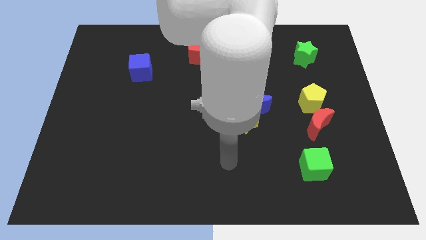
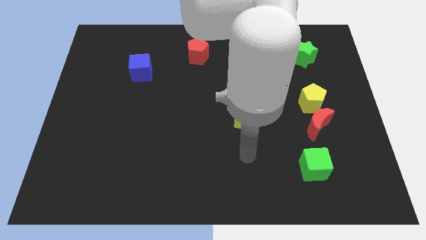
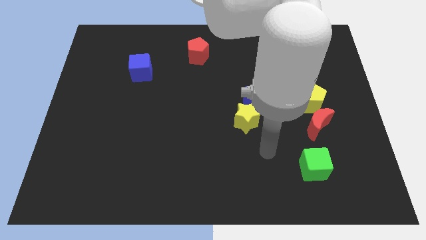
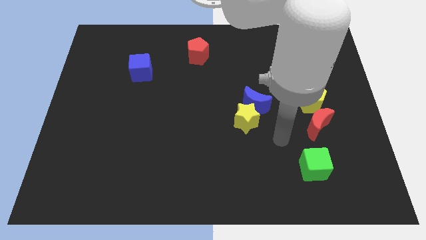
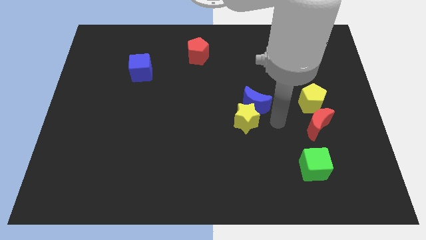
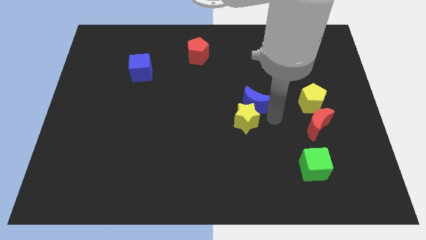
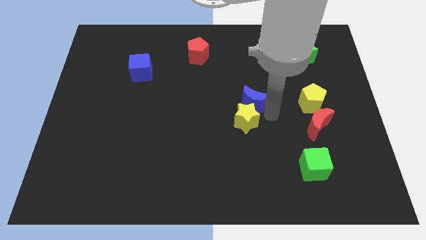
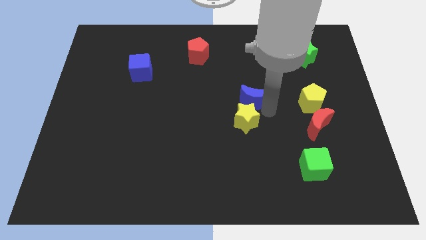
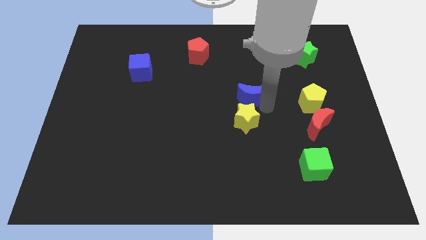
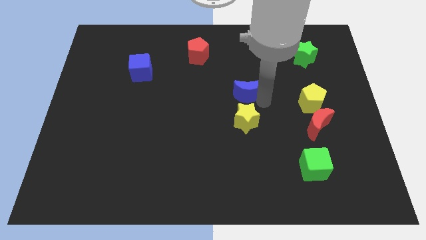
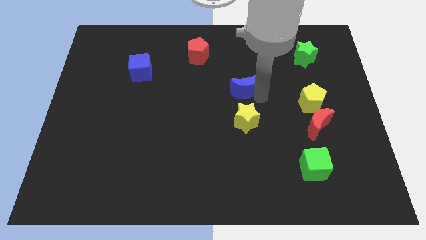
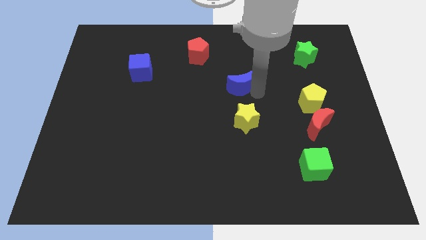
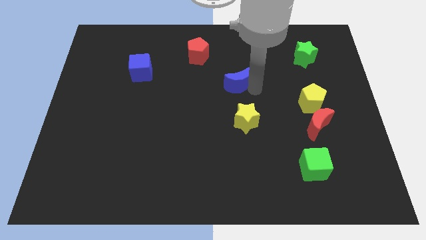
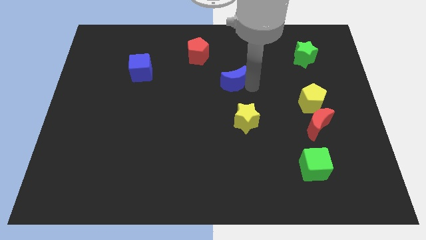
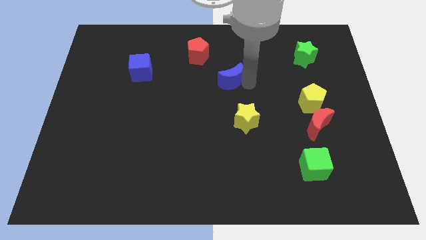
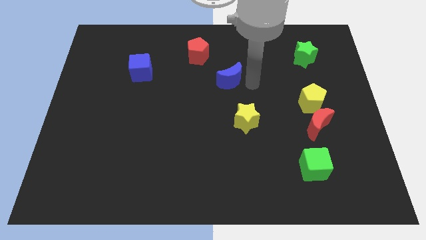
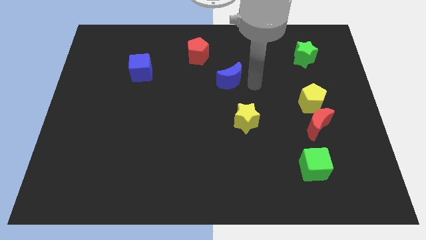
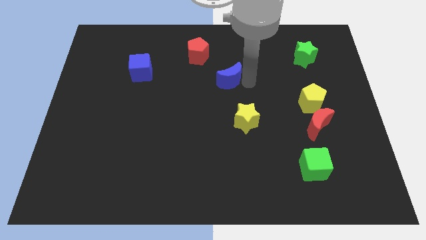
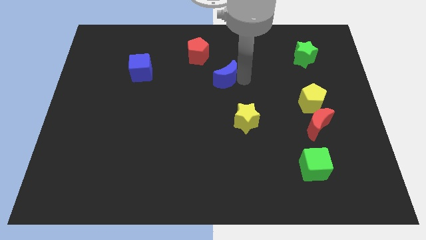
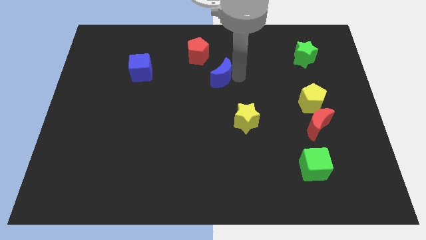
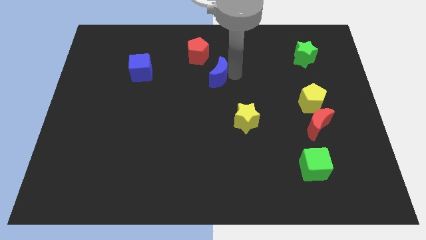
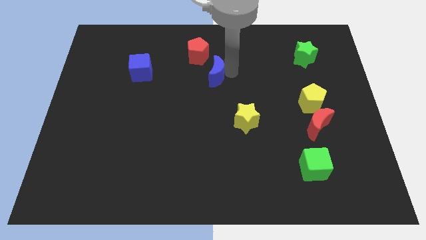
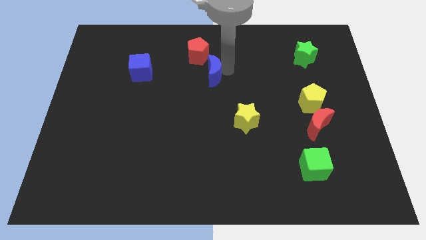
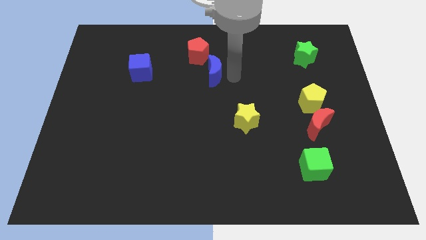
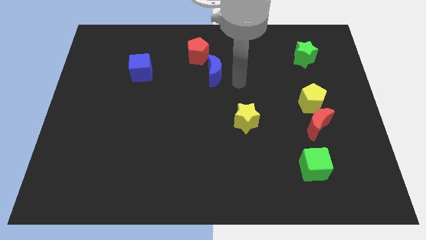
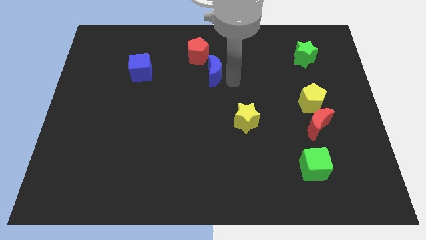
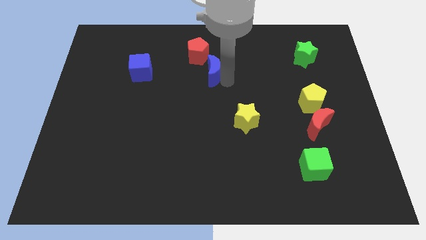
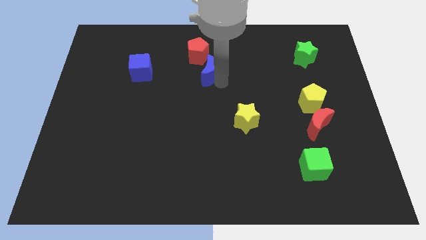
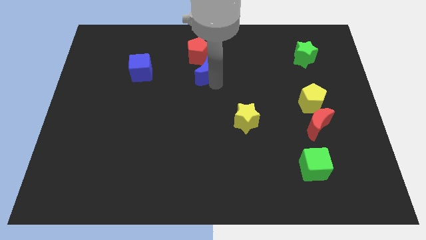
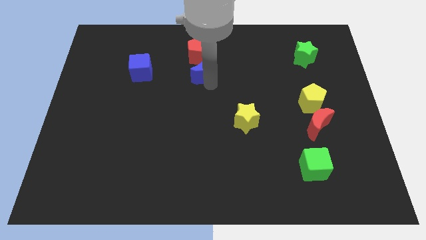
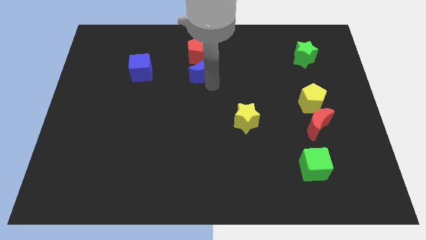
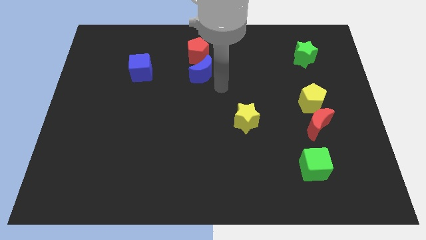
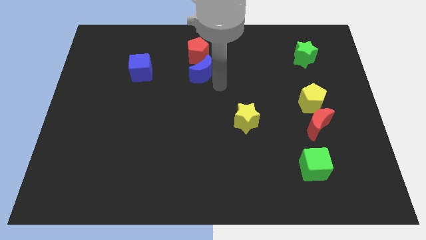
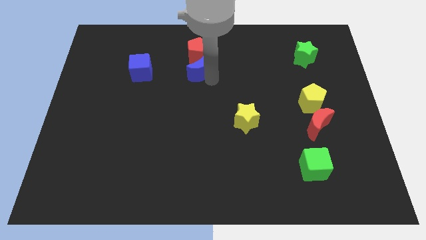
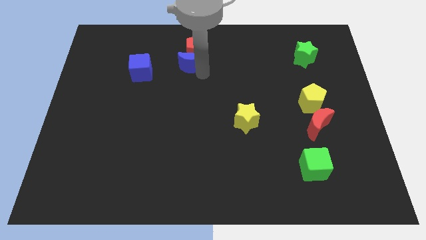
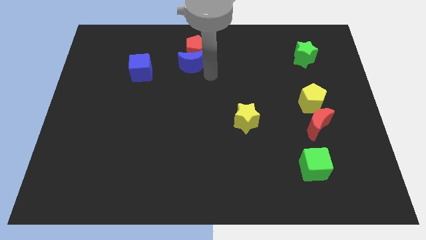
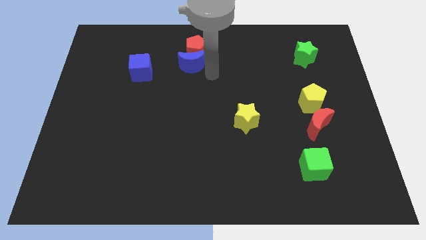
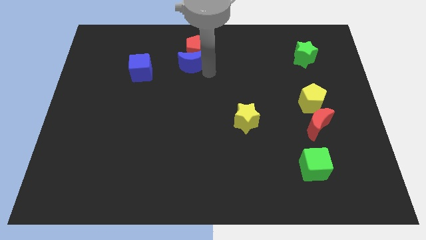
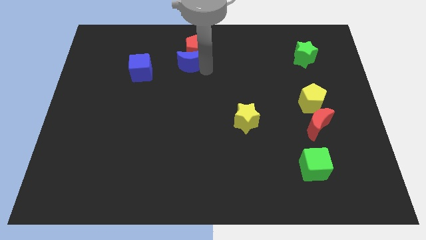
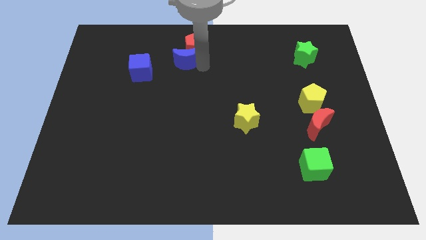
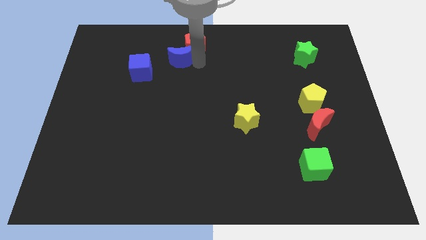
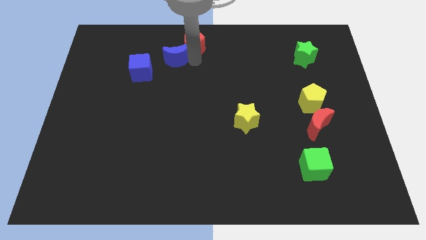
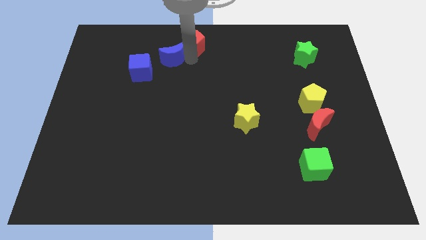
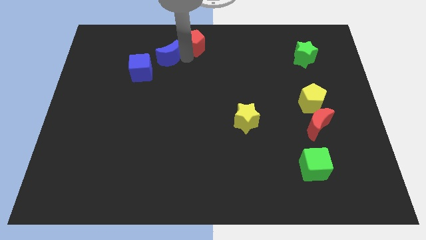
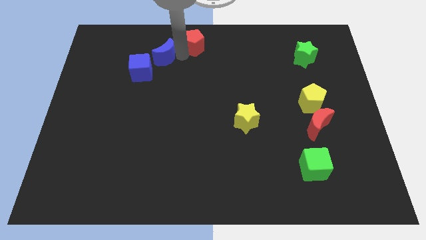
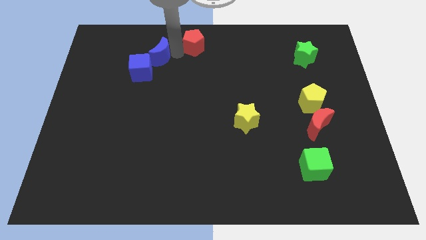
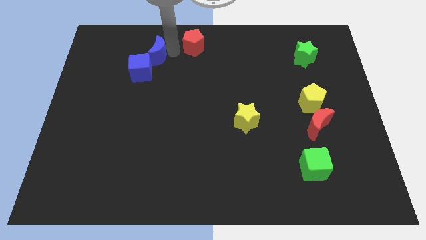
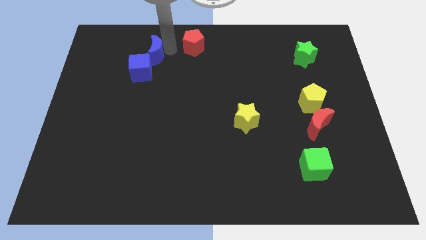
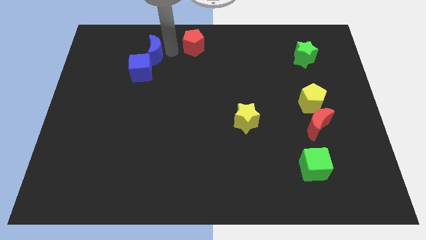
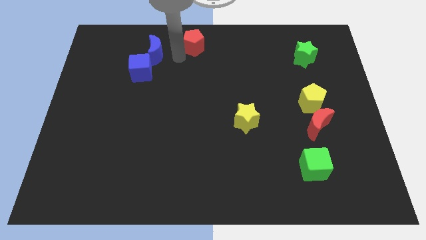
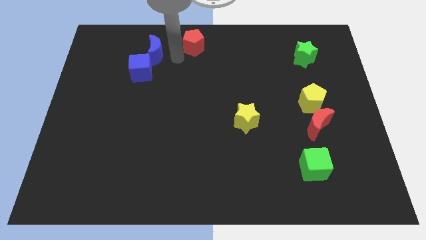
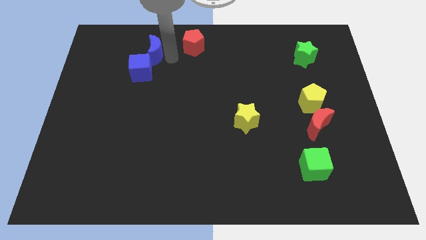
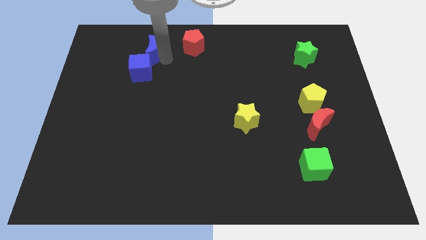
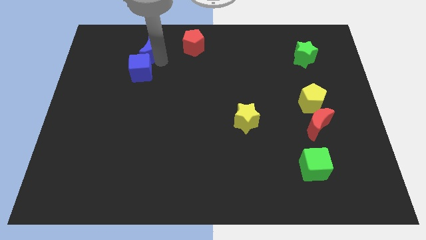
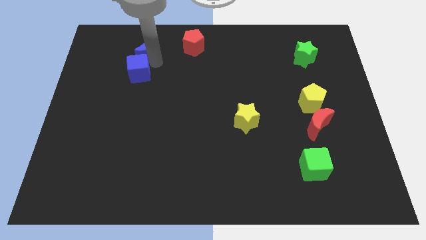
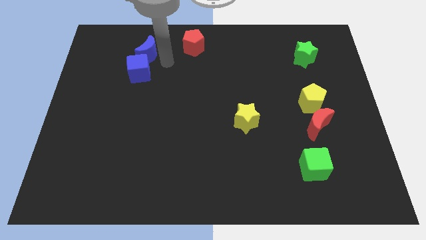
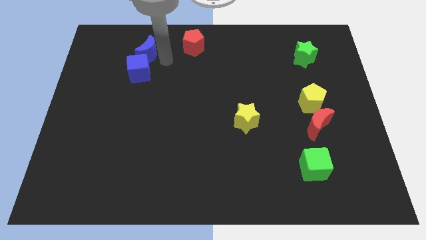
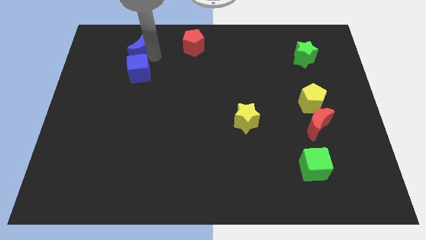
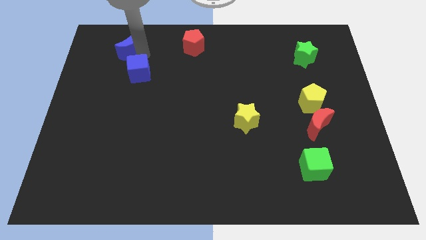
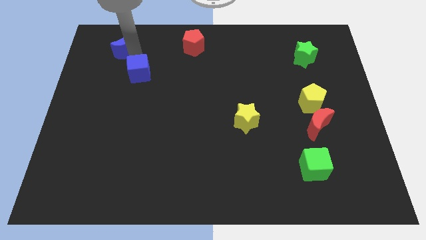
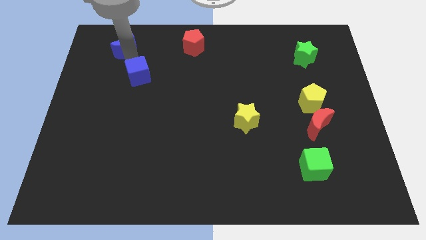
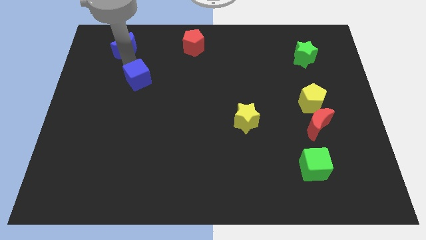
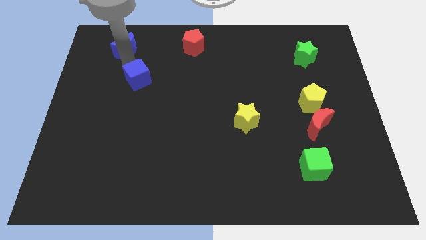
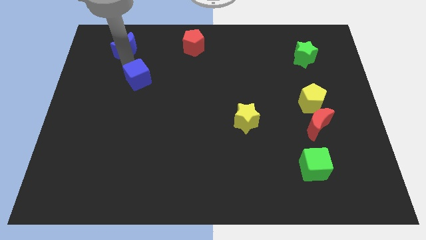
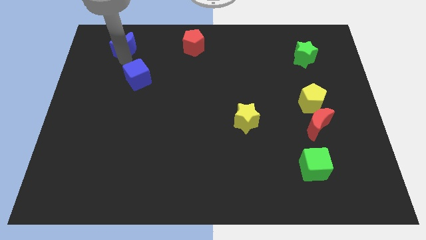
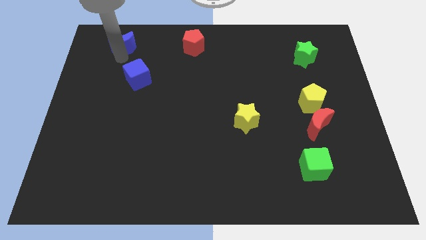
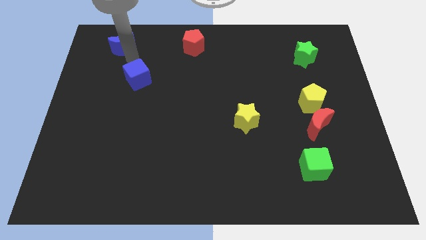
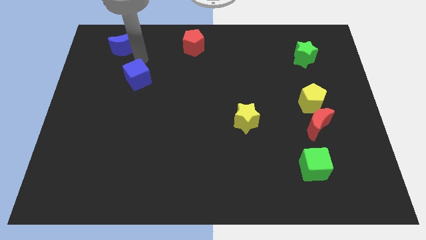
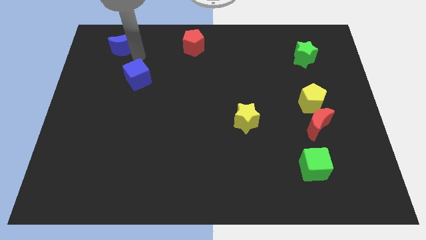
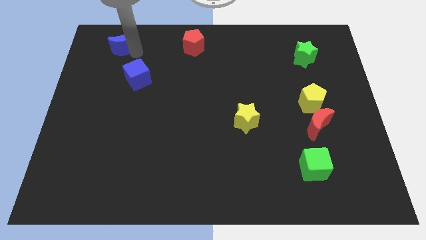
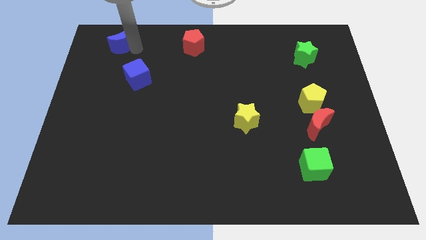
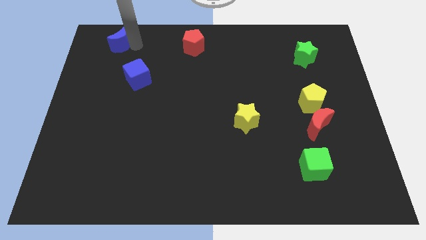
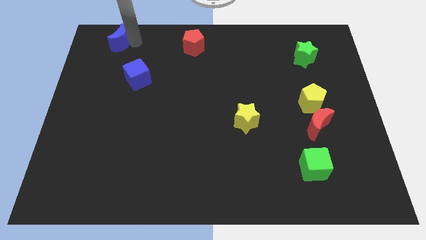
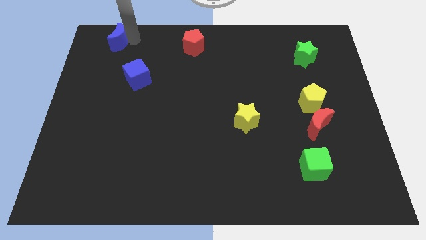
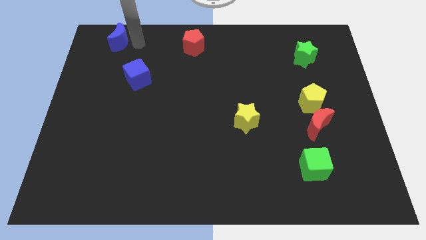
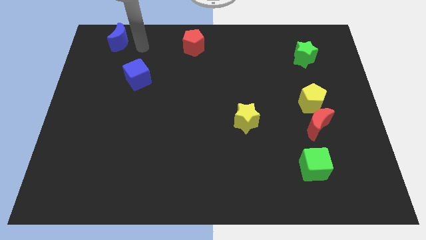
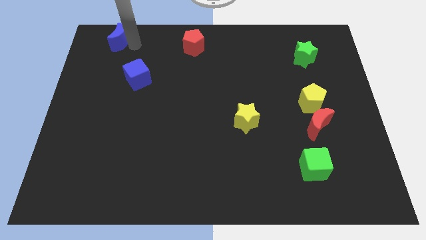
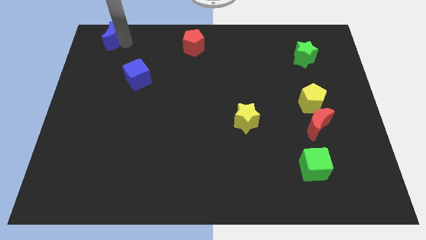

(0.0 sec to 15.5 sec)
put the blue moon to the upper left corner
